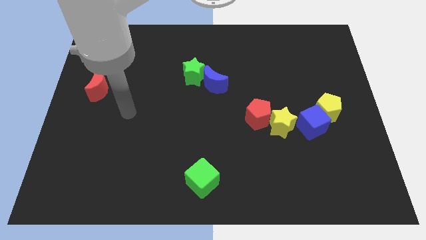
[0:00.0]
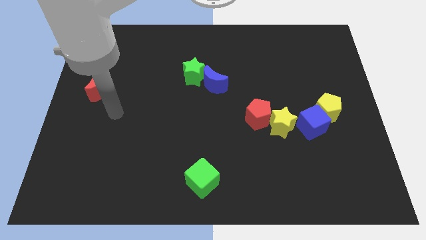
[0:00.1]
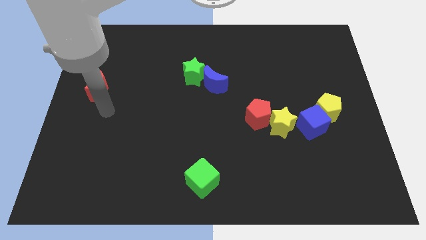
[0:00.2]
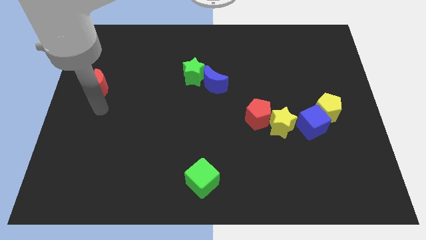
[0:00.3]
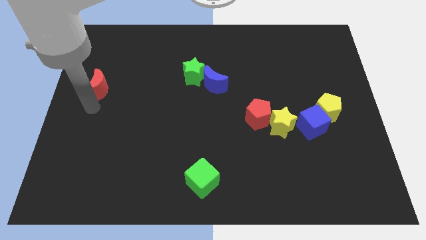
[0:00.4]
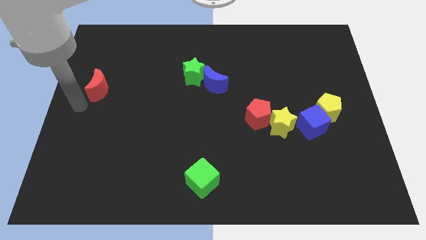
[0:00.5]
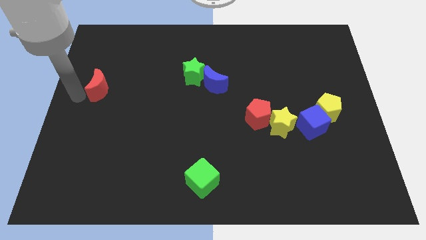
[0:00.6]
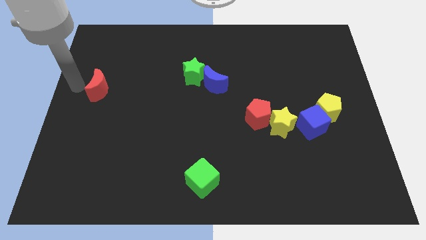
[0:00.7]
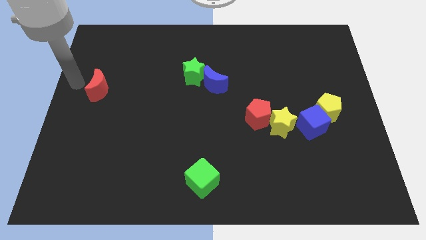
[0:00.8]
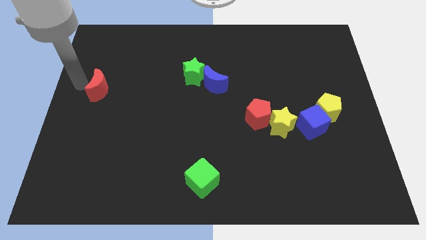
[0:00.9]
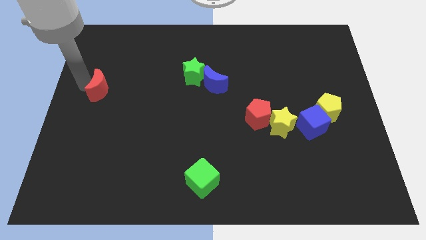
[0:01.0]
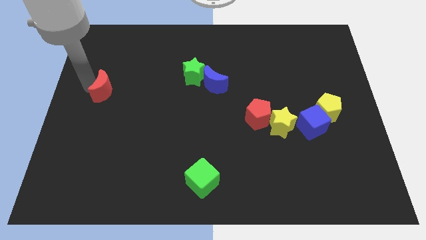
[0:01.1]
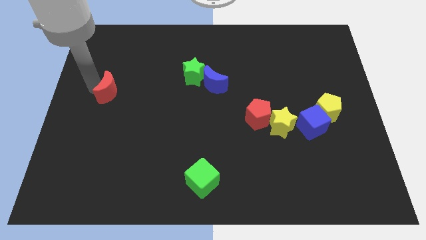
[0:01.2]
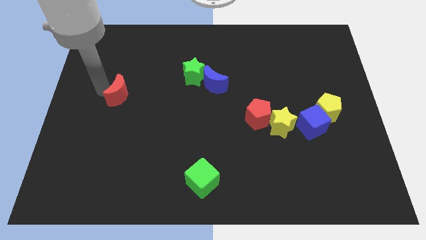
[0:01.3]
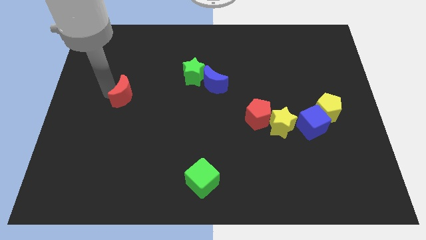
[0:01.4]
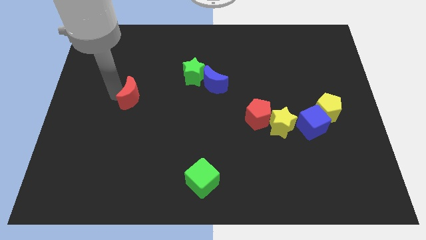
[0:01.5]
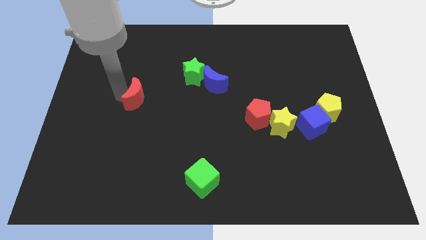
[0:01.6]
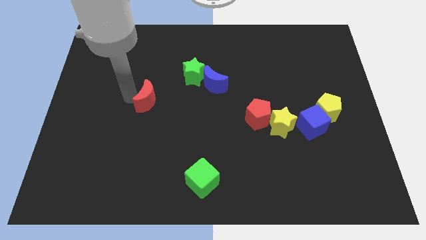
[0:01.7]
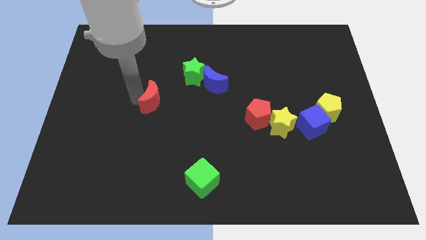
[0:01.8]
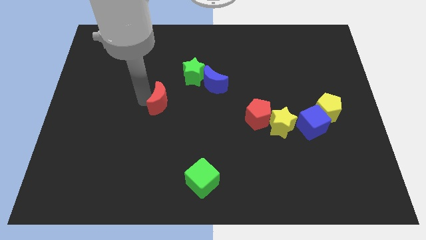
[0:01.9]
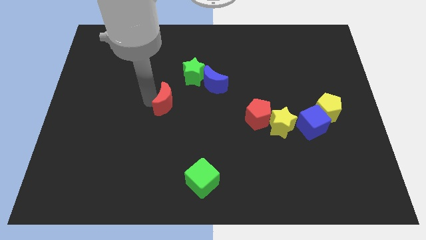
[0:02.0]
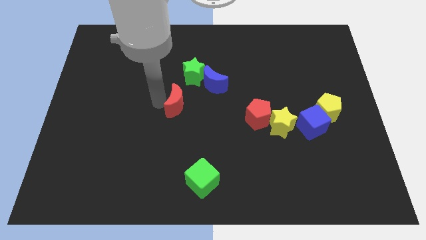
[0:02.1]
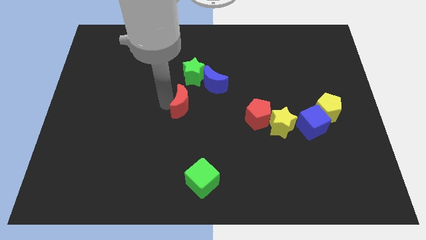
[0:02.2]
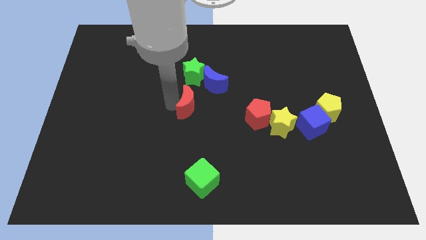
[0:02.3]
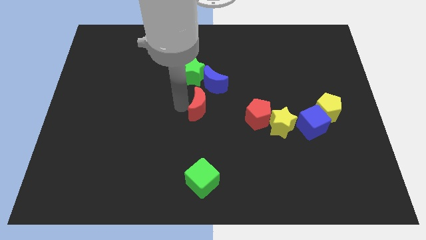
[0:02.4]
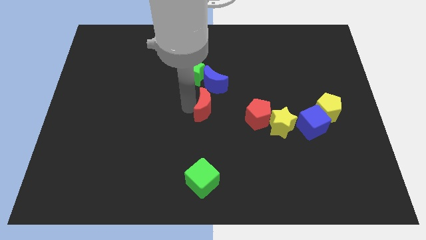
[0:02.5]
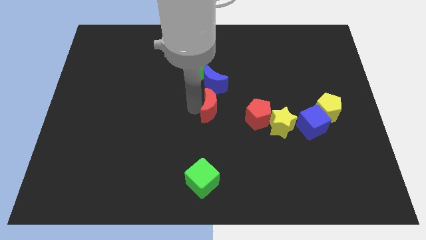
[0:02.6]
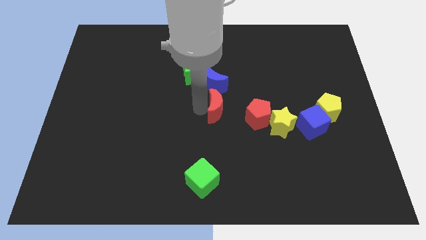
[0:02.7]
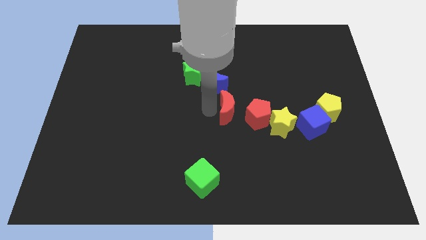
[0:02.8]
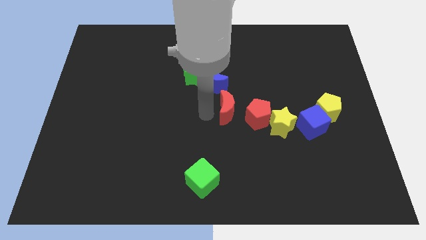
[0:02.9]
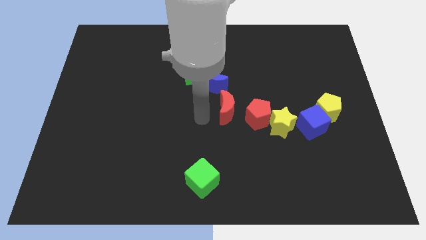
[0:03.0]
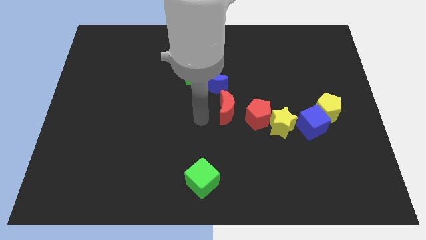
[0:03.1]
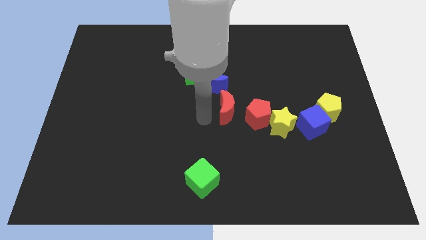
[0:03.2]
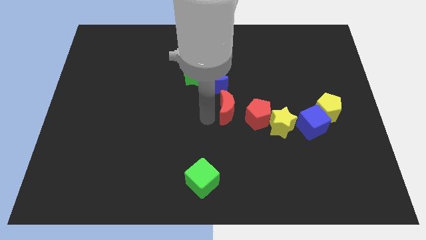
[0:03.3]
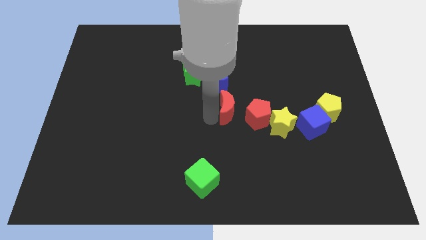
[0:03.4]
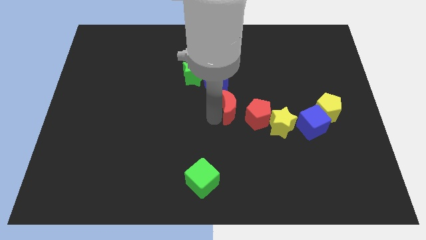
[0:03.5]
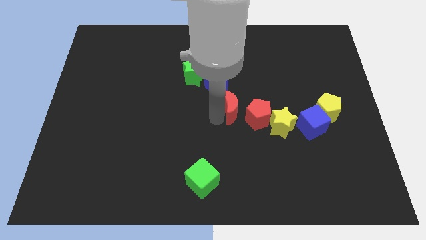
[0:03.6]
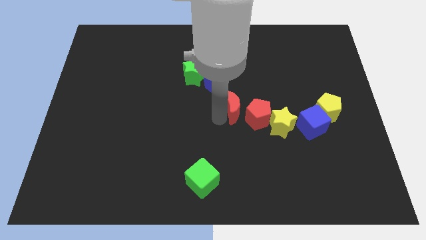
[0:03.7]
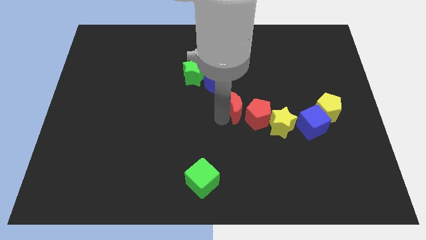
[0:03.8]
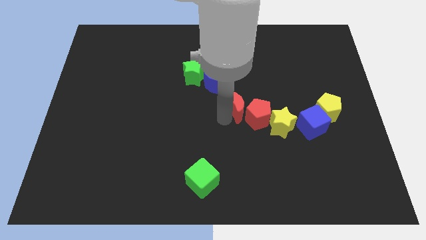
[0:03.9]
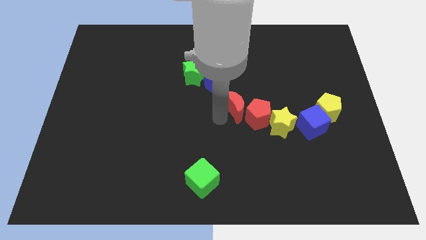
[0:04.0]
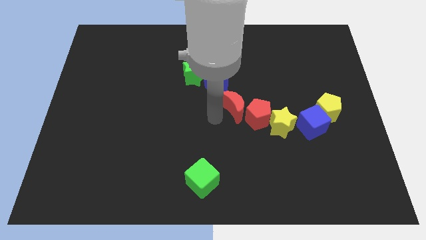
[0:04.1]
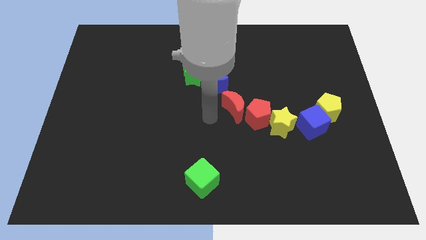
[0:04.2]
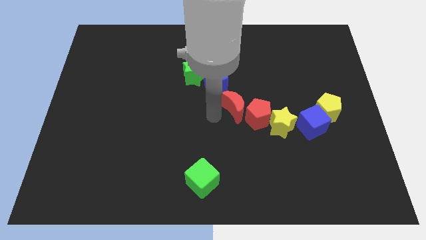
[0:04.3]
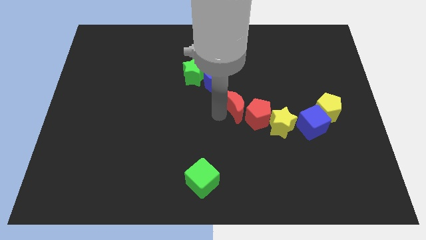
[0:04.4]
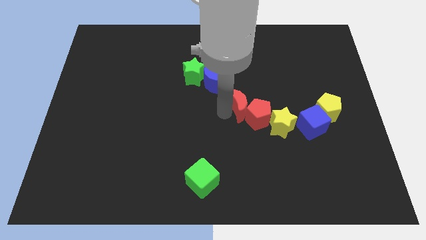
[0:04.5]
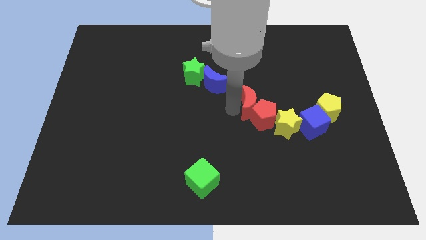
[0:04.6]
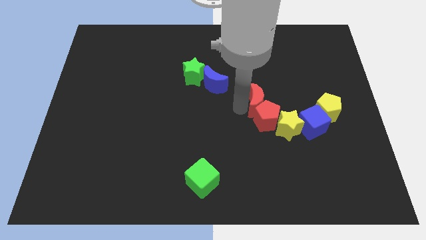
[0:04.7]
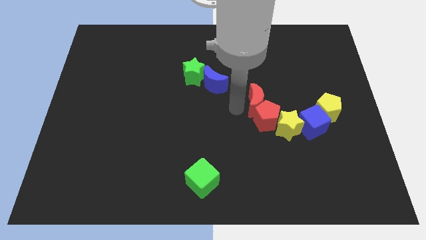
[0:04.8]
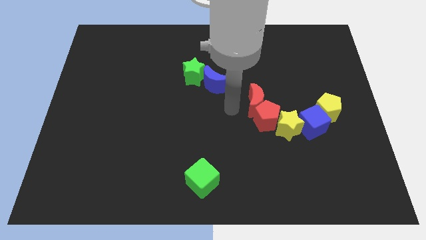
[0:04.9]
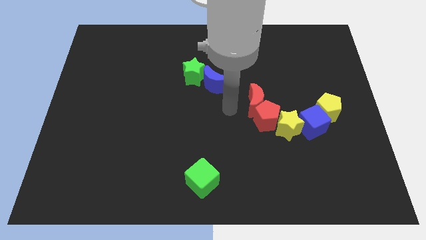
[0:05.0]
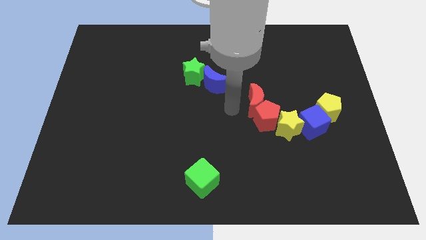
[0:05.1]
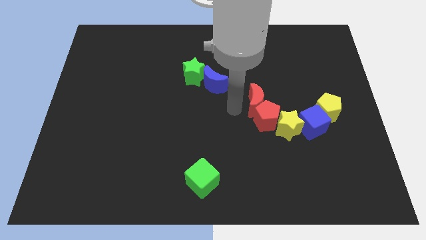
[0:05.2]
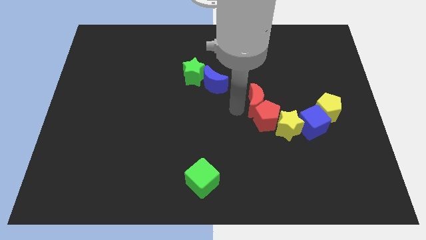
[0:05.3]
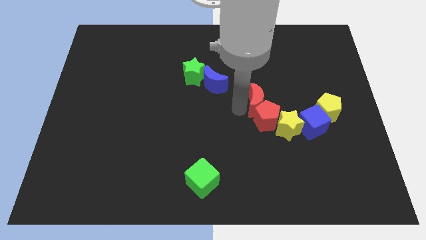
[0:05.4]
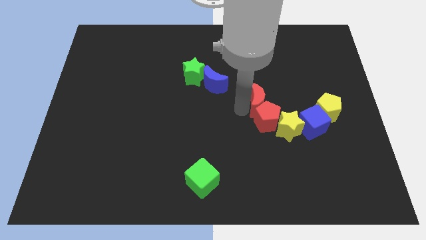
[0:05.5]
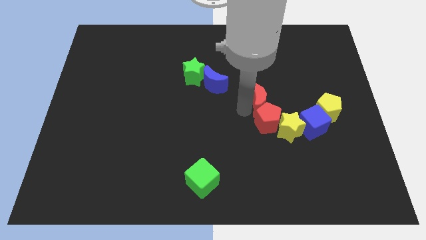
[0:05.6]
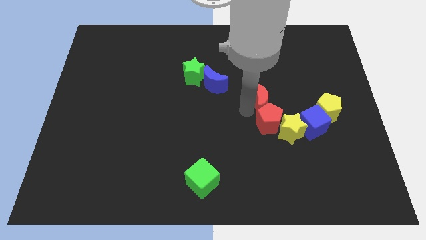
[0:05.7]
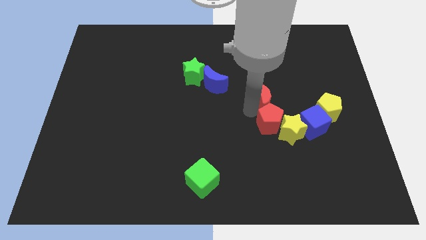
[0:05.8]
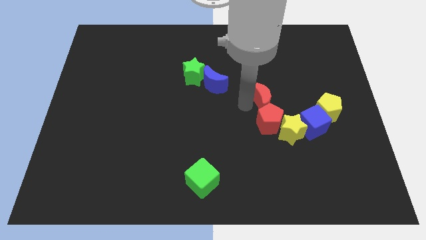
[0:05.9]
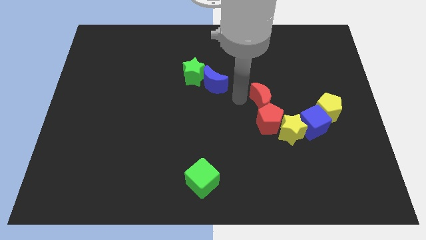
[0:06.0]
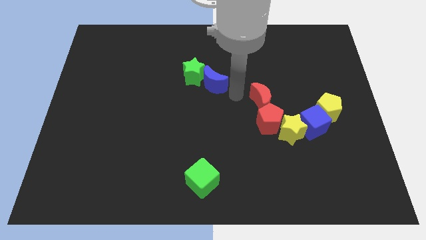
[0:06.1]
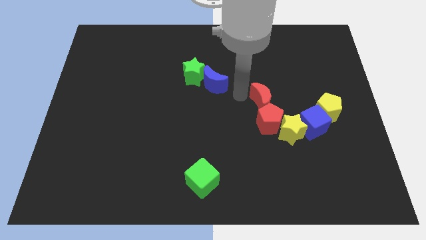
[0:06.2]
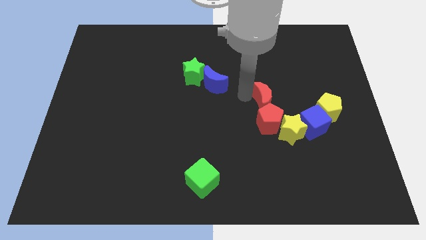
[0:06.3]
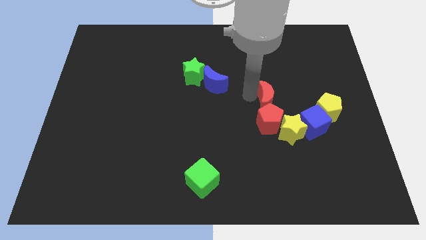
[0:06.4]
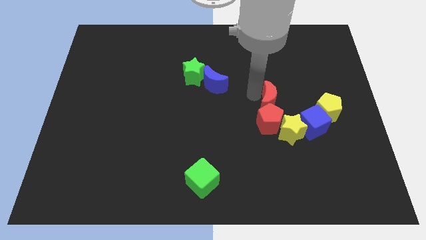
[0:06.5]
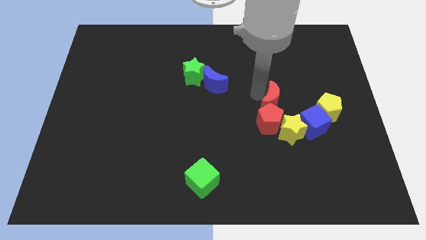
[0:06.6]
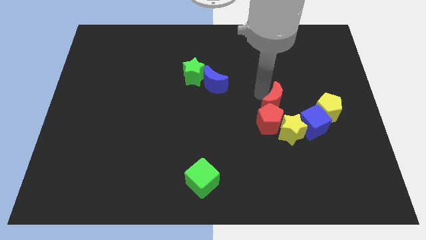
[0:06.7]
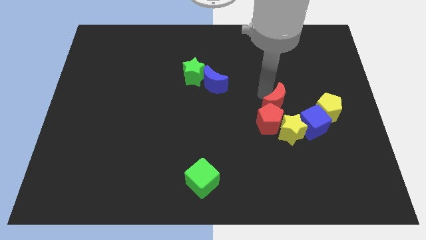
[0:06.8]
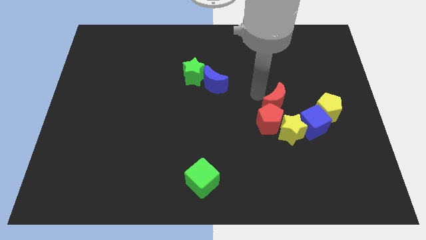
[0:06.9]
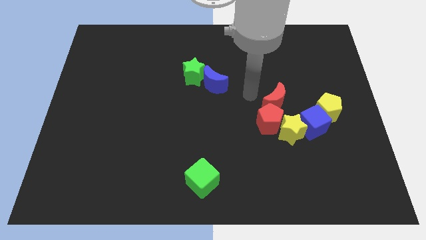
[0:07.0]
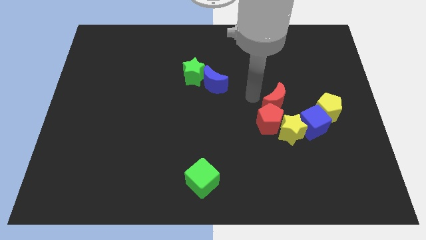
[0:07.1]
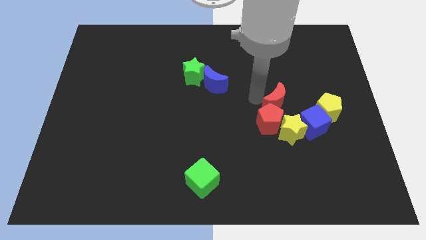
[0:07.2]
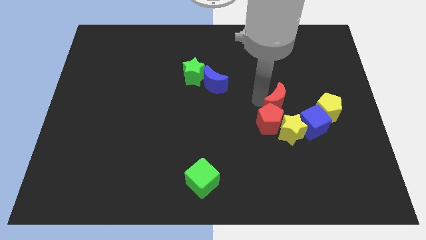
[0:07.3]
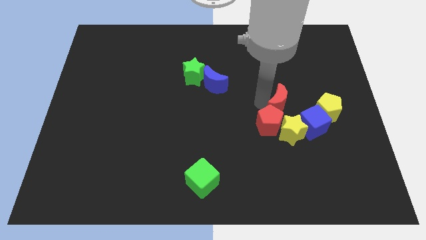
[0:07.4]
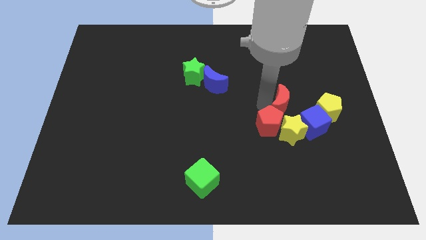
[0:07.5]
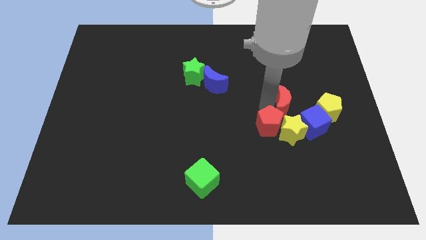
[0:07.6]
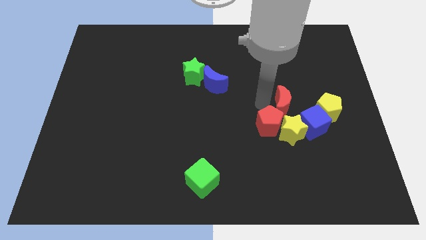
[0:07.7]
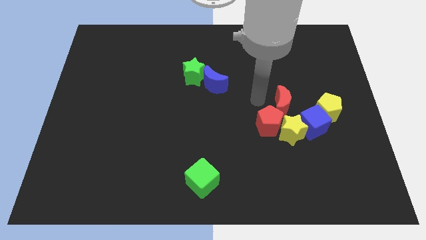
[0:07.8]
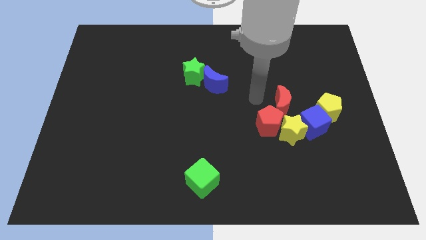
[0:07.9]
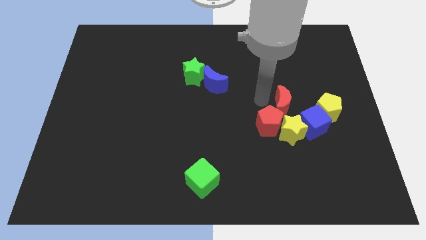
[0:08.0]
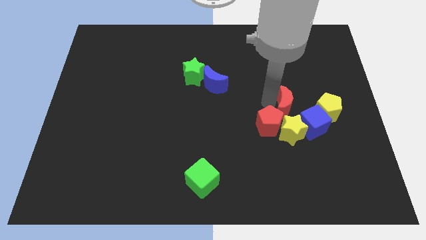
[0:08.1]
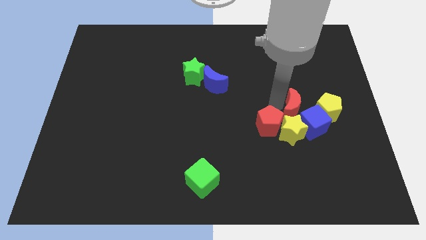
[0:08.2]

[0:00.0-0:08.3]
push the red moon diagonally up and to the right of the yellow star
